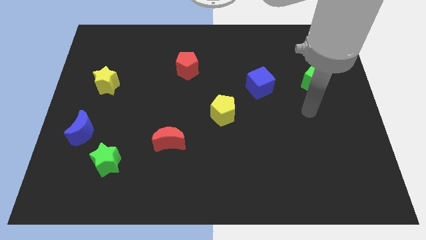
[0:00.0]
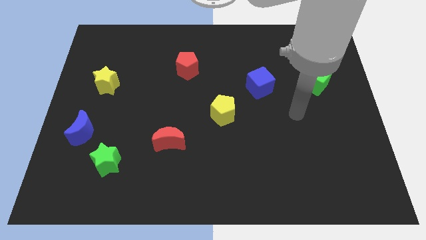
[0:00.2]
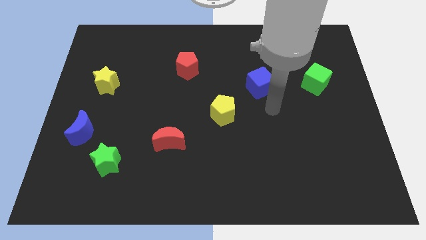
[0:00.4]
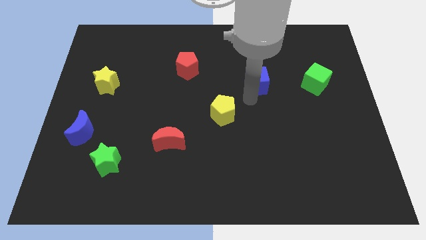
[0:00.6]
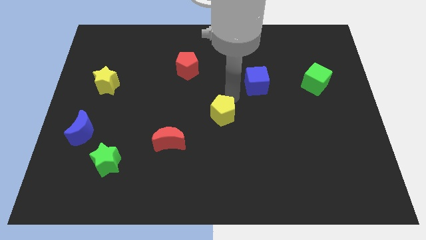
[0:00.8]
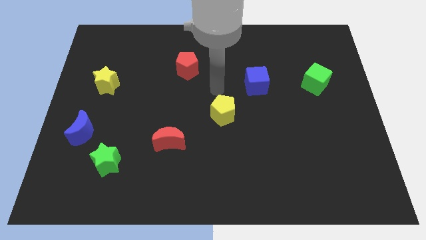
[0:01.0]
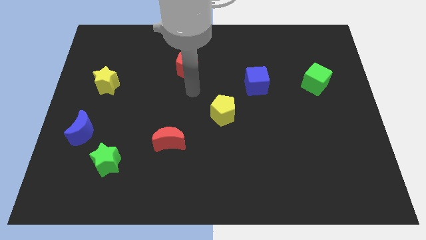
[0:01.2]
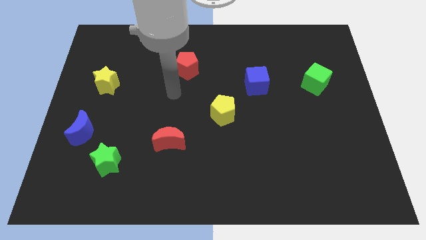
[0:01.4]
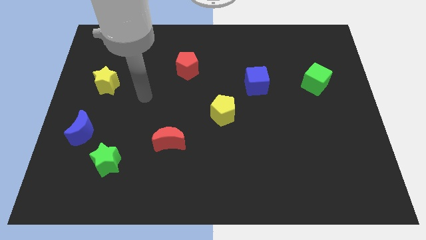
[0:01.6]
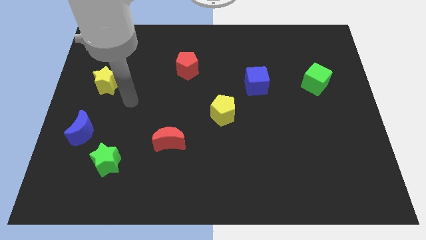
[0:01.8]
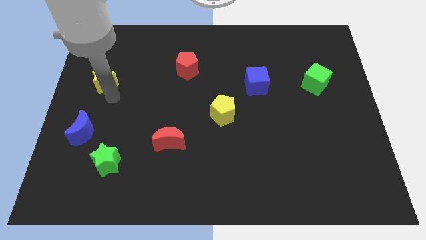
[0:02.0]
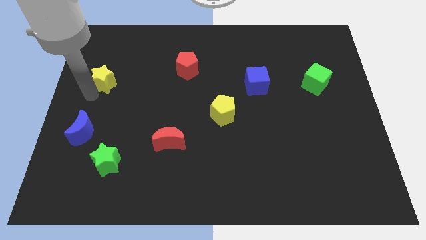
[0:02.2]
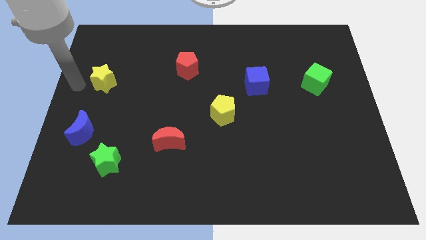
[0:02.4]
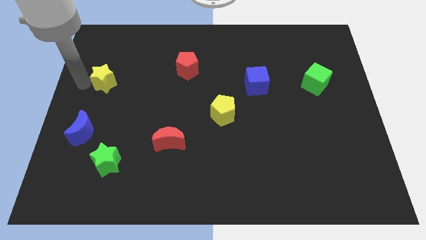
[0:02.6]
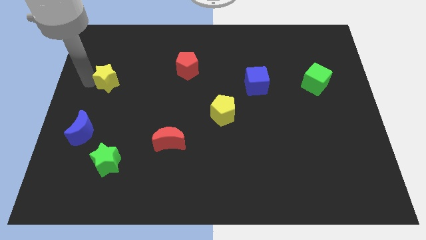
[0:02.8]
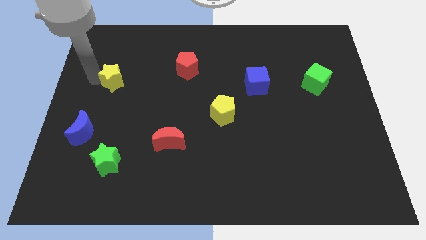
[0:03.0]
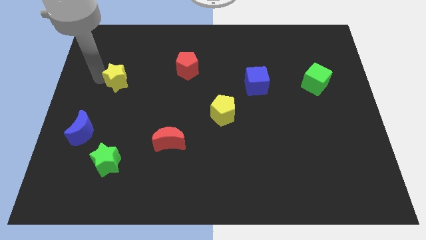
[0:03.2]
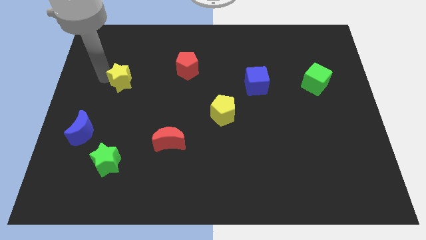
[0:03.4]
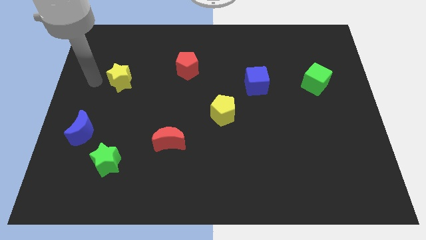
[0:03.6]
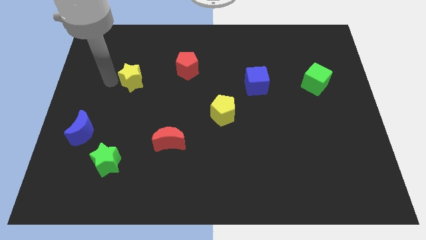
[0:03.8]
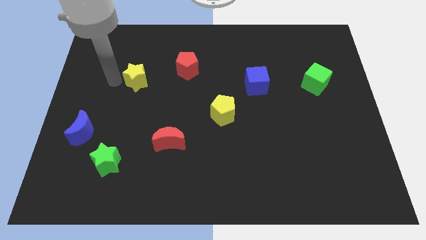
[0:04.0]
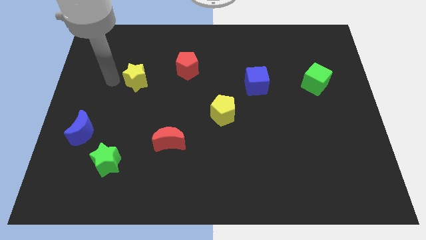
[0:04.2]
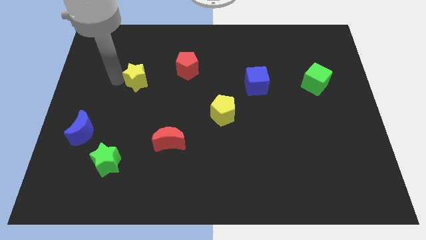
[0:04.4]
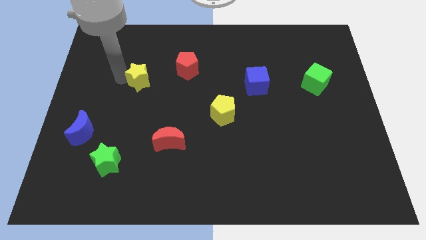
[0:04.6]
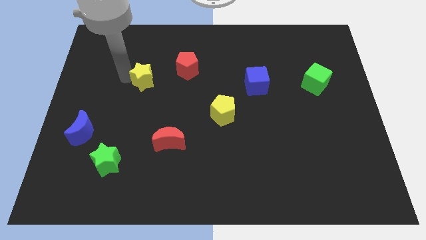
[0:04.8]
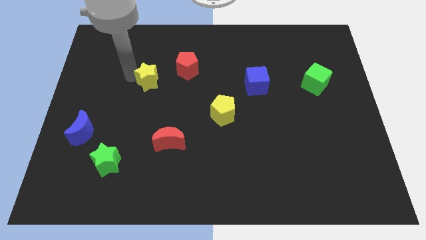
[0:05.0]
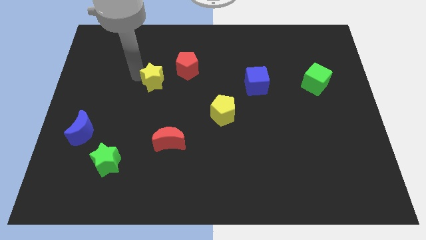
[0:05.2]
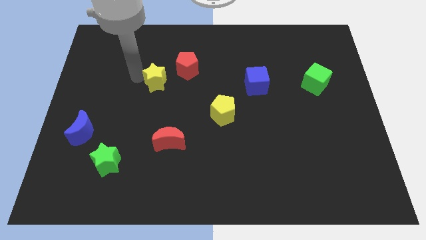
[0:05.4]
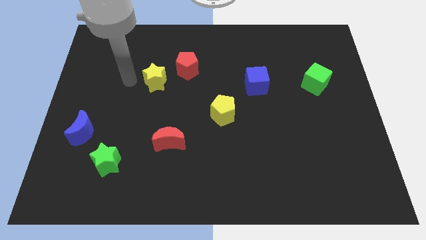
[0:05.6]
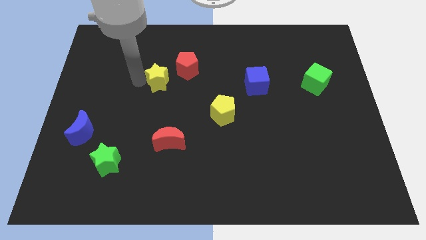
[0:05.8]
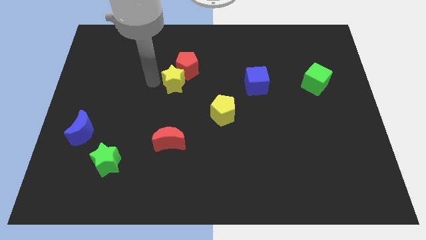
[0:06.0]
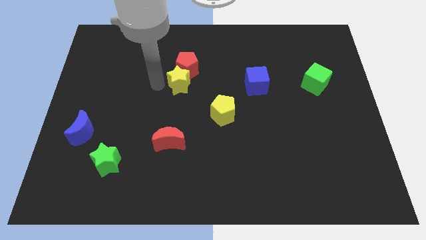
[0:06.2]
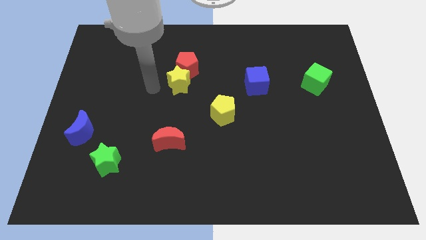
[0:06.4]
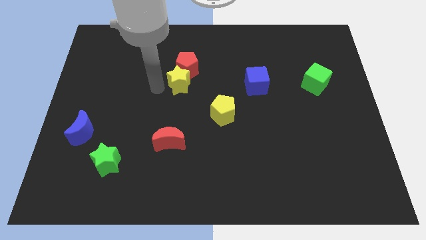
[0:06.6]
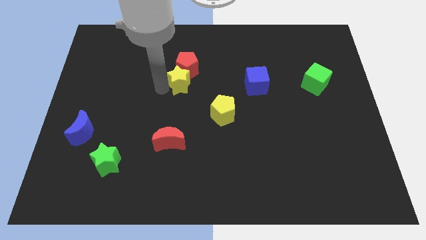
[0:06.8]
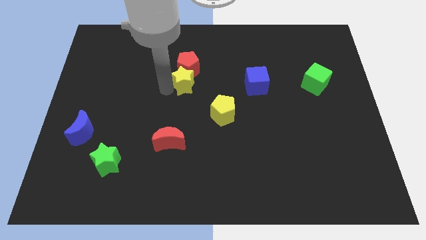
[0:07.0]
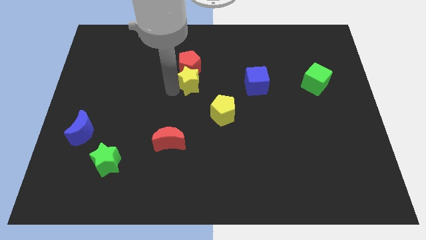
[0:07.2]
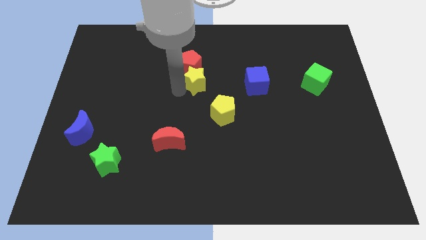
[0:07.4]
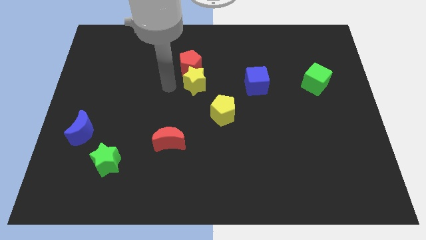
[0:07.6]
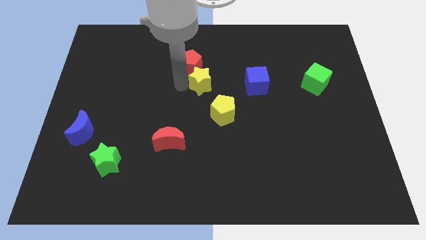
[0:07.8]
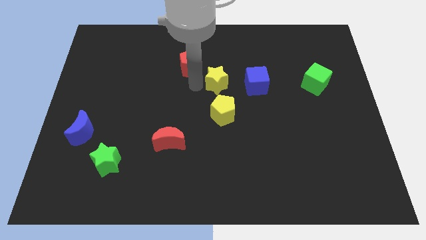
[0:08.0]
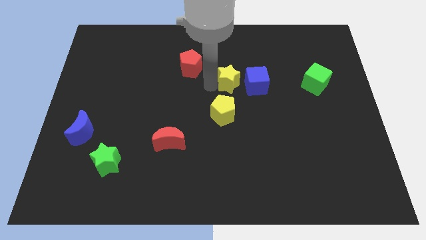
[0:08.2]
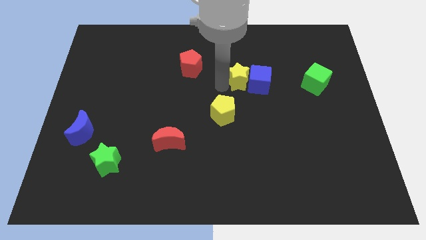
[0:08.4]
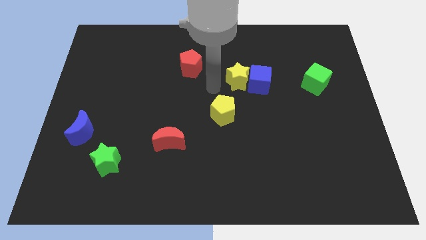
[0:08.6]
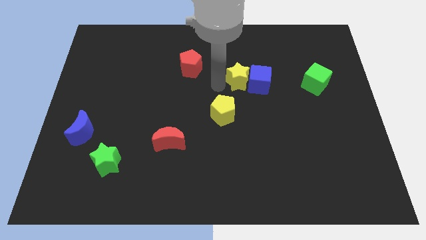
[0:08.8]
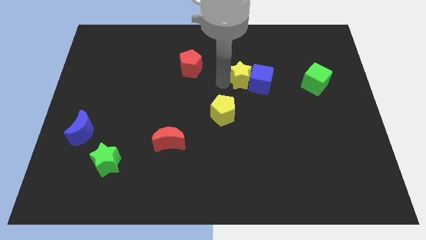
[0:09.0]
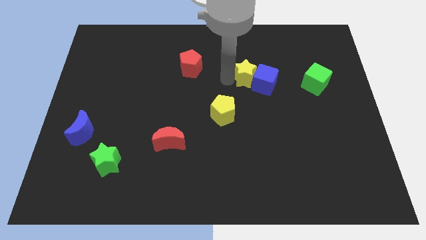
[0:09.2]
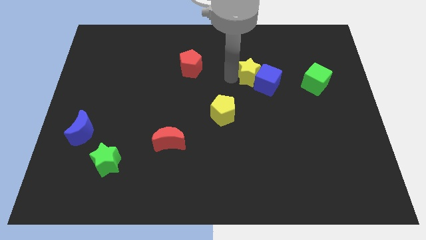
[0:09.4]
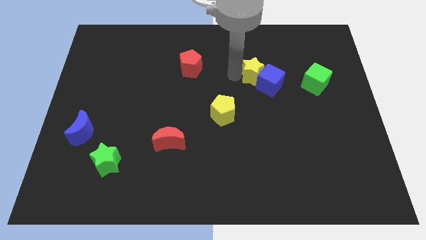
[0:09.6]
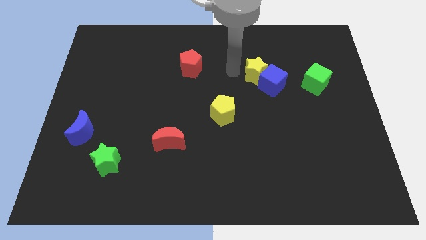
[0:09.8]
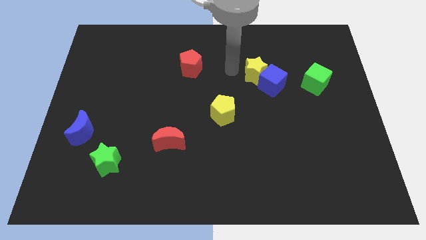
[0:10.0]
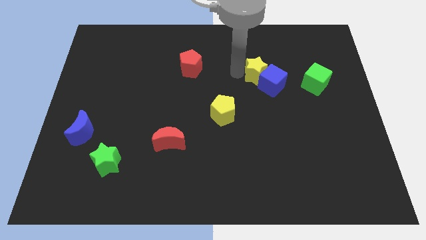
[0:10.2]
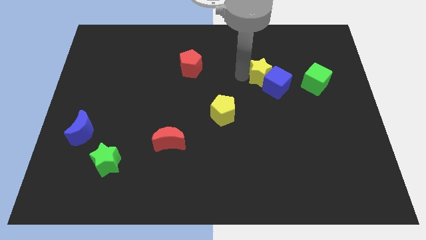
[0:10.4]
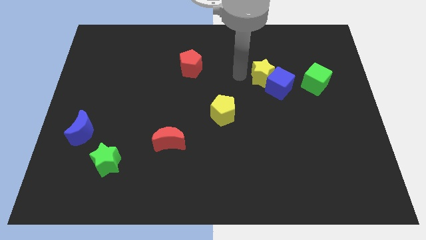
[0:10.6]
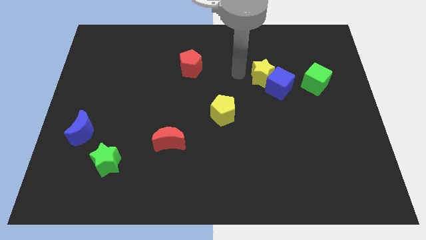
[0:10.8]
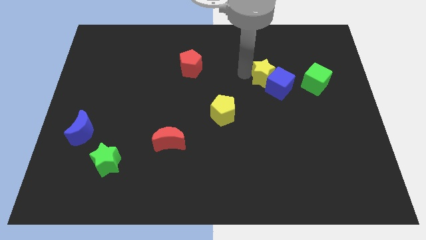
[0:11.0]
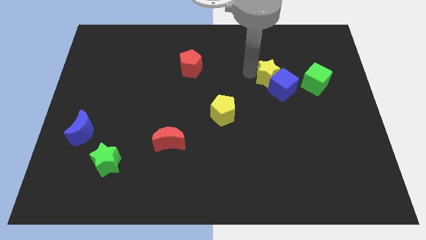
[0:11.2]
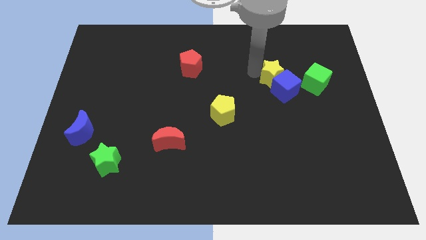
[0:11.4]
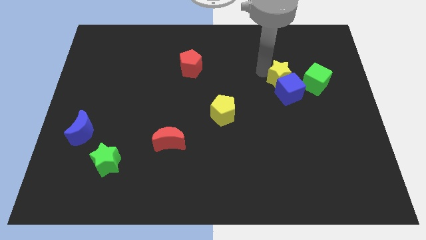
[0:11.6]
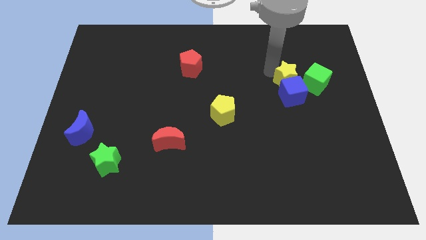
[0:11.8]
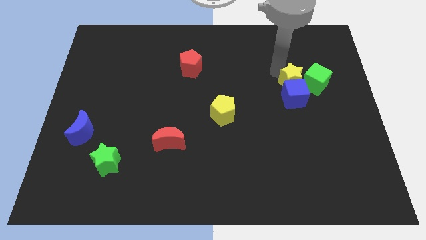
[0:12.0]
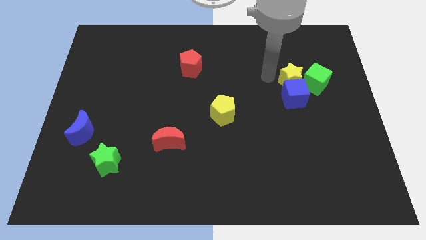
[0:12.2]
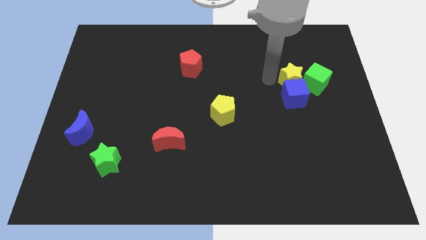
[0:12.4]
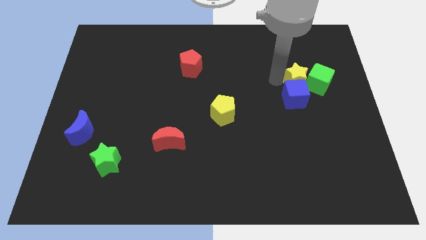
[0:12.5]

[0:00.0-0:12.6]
put the yellow star to the green cube

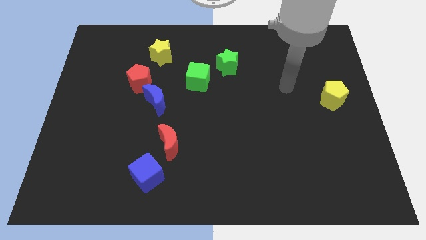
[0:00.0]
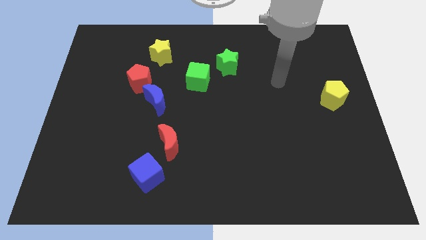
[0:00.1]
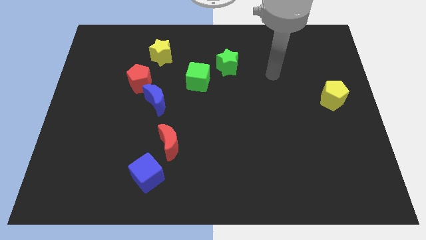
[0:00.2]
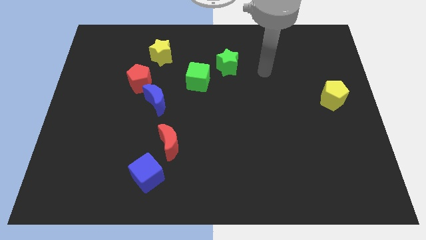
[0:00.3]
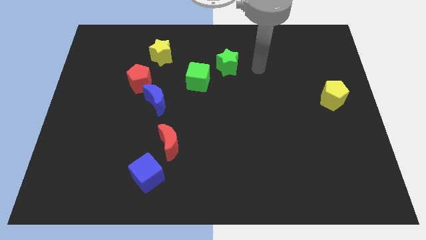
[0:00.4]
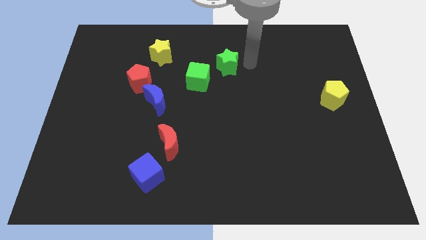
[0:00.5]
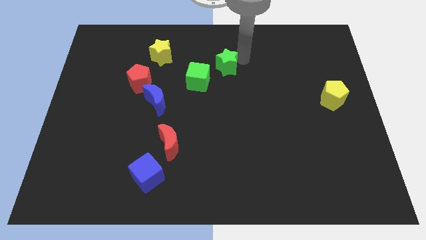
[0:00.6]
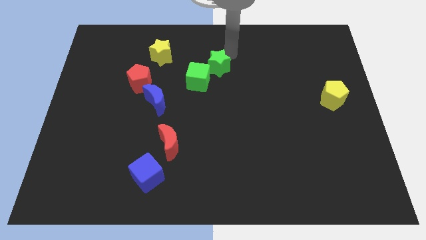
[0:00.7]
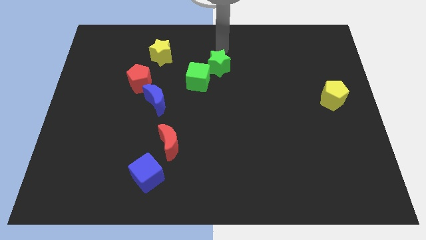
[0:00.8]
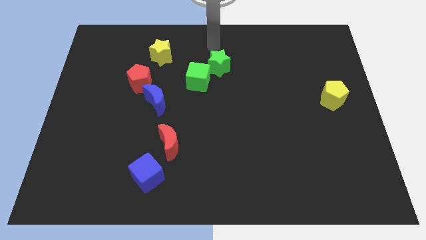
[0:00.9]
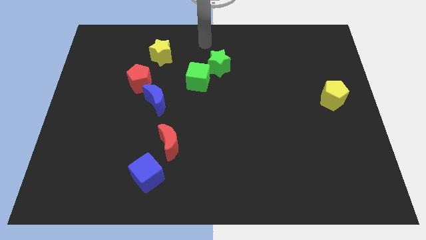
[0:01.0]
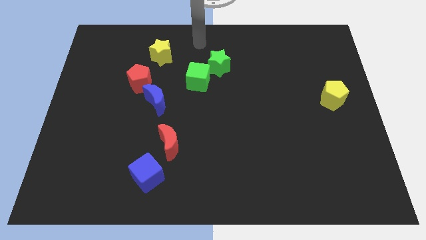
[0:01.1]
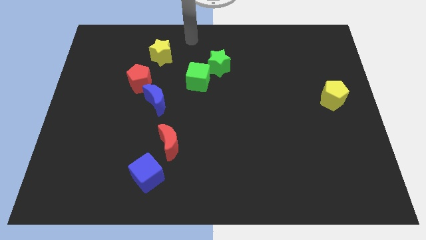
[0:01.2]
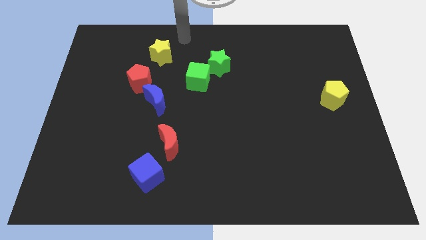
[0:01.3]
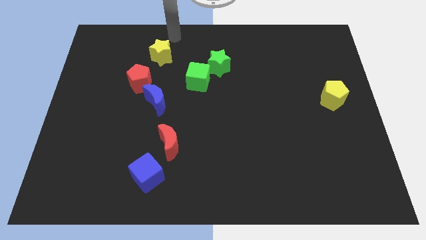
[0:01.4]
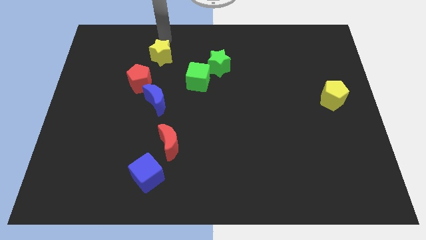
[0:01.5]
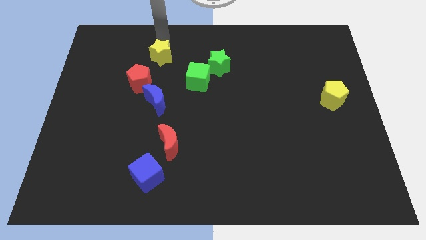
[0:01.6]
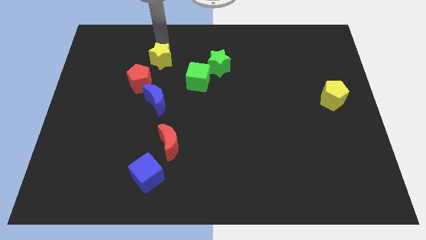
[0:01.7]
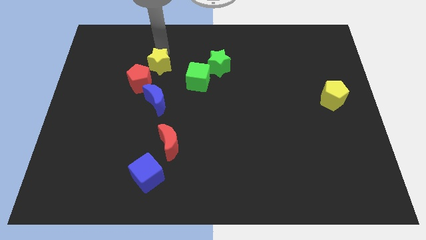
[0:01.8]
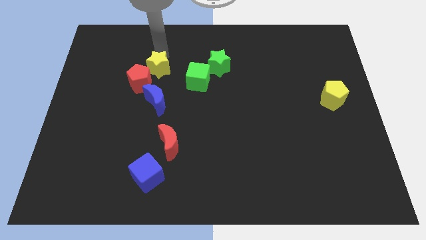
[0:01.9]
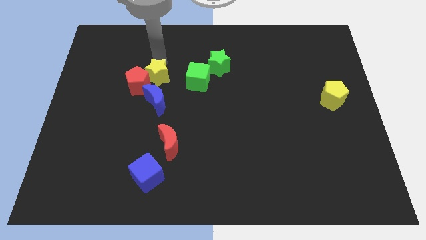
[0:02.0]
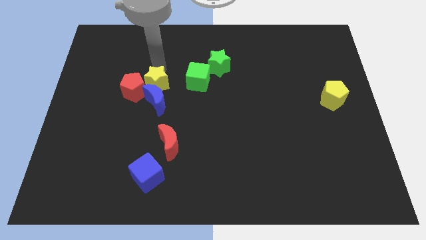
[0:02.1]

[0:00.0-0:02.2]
move the yellow star next to the blue moon
